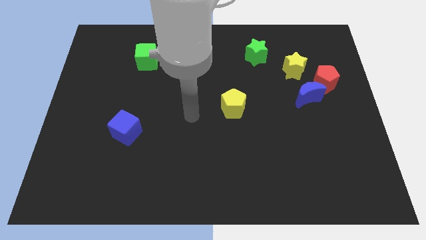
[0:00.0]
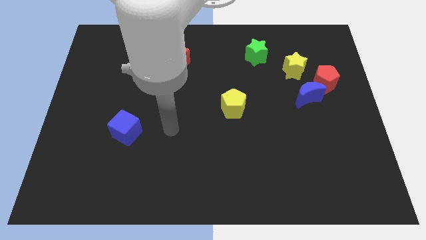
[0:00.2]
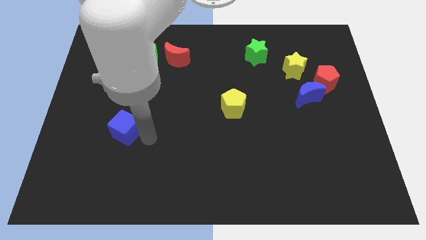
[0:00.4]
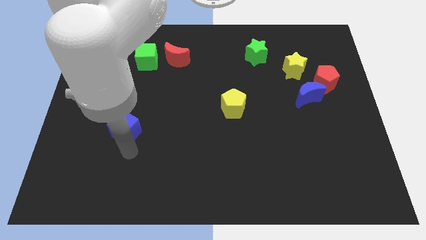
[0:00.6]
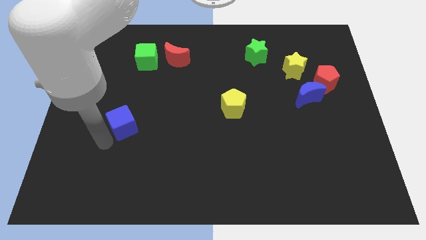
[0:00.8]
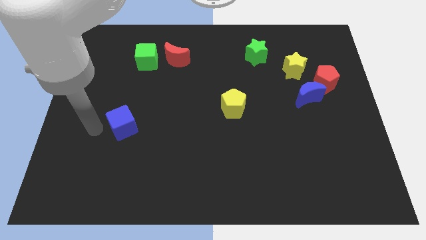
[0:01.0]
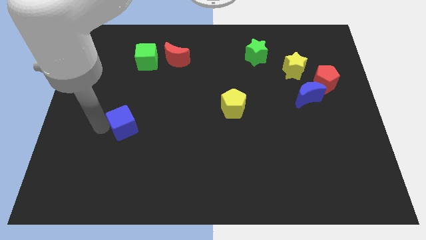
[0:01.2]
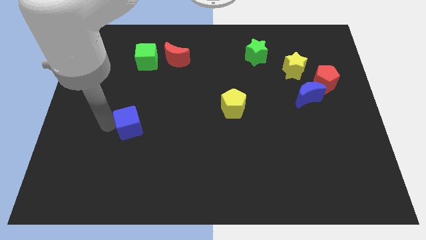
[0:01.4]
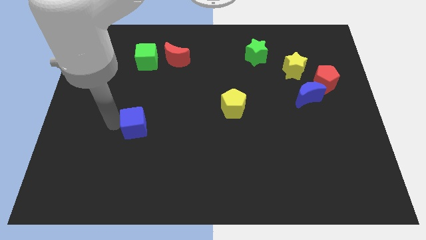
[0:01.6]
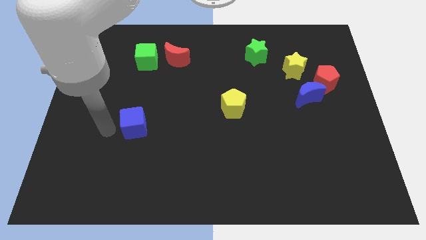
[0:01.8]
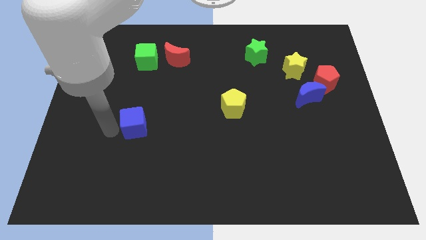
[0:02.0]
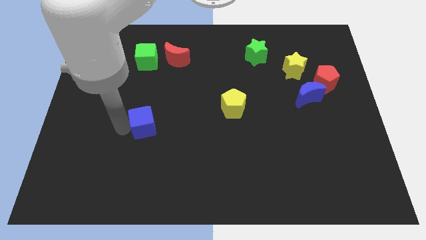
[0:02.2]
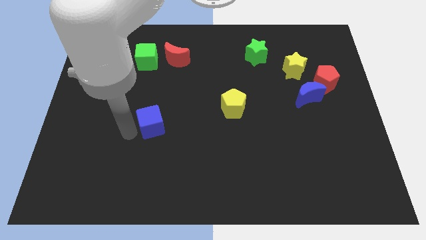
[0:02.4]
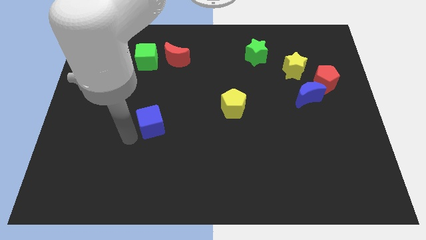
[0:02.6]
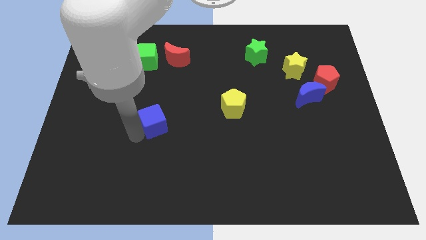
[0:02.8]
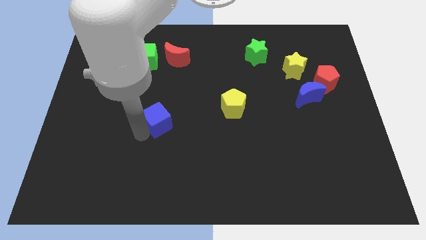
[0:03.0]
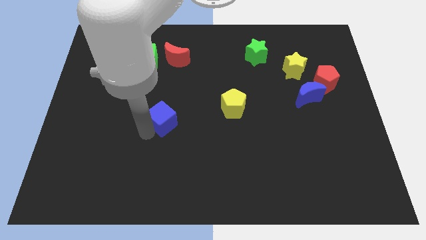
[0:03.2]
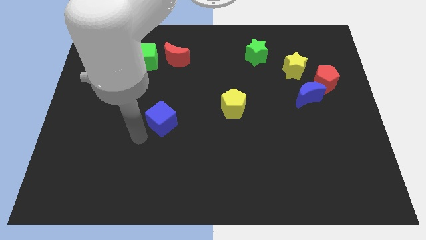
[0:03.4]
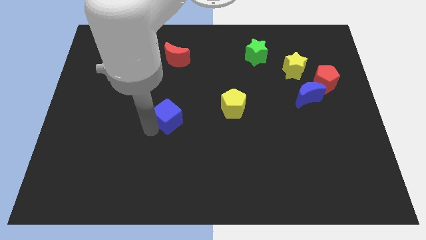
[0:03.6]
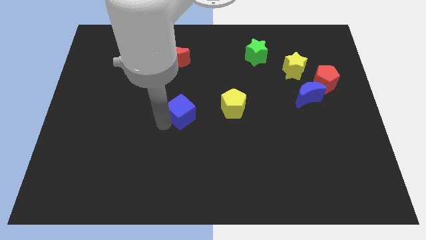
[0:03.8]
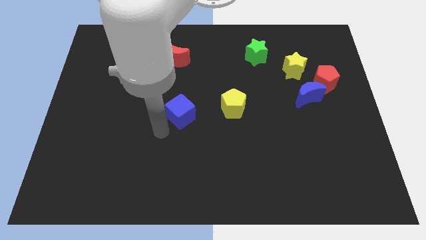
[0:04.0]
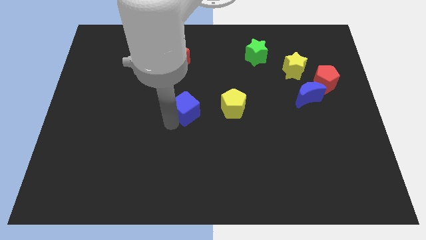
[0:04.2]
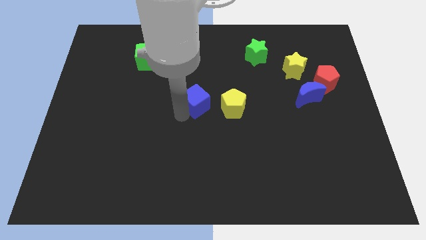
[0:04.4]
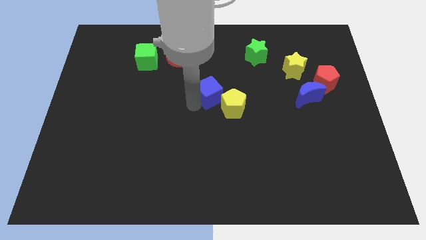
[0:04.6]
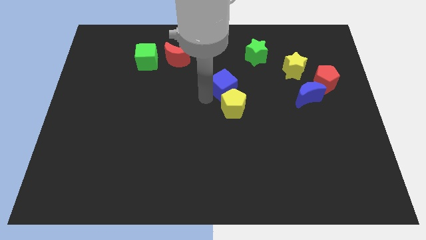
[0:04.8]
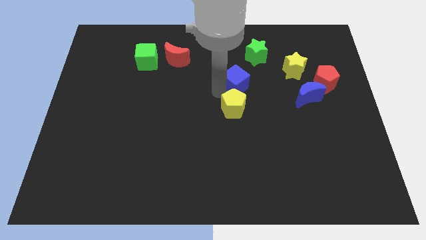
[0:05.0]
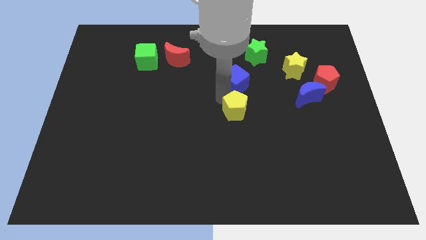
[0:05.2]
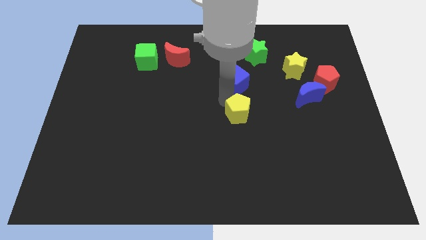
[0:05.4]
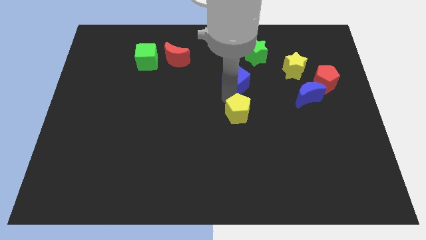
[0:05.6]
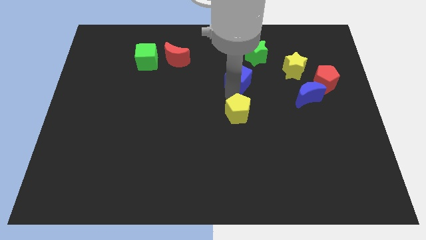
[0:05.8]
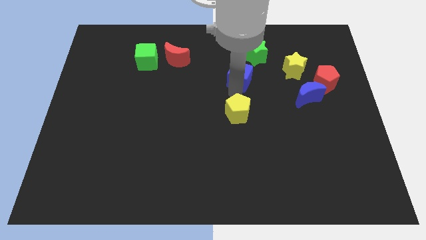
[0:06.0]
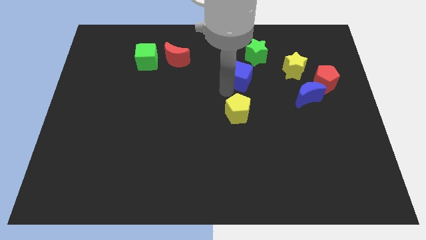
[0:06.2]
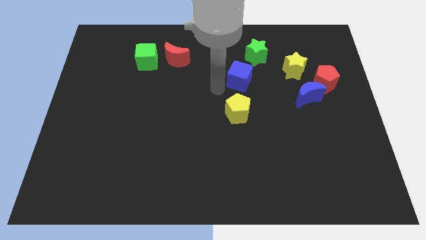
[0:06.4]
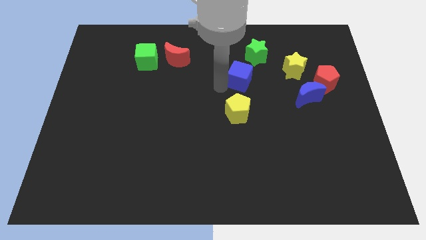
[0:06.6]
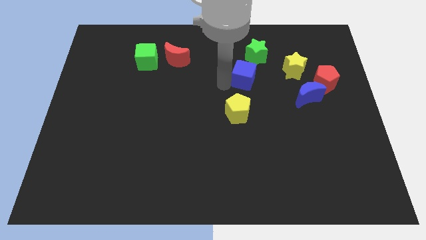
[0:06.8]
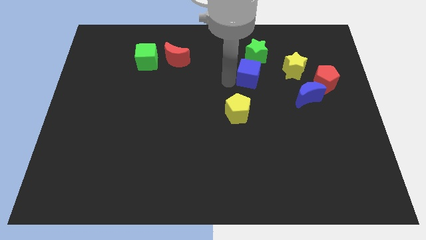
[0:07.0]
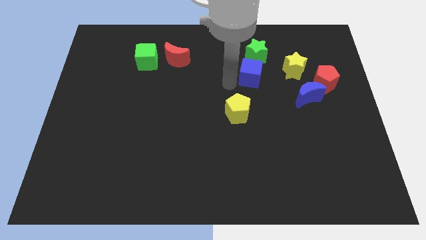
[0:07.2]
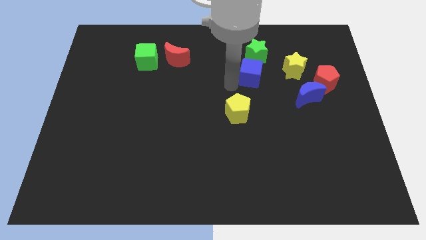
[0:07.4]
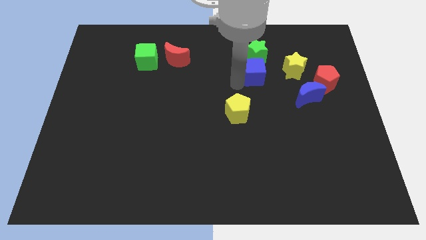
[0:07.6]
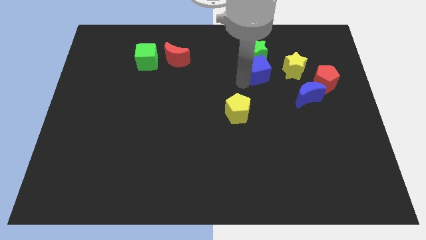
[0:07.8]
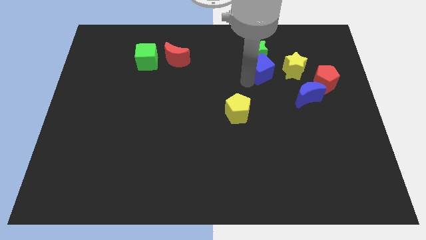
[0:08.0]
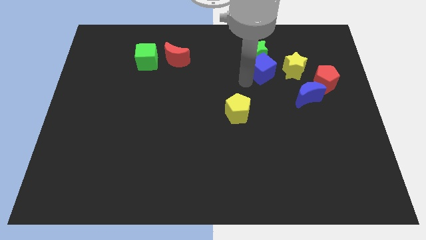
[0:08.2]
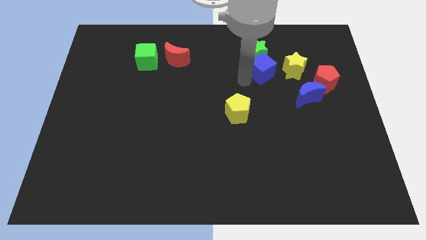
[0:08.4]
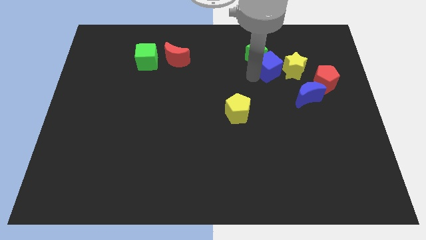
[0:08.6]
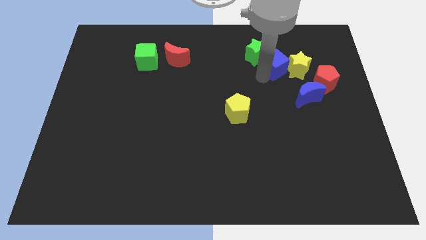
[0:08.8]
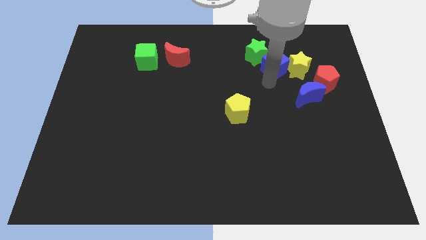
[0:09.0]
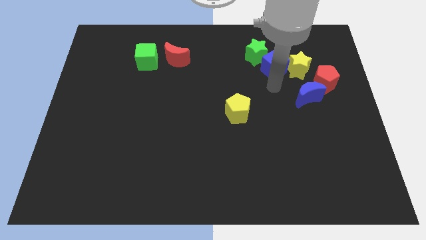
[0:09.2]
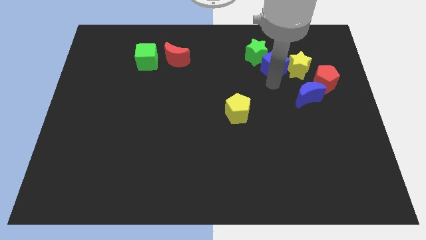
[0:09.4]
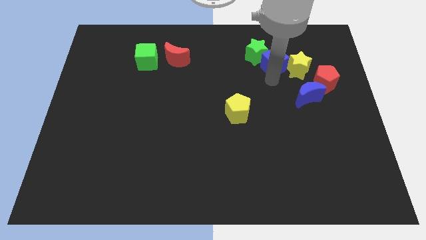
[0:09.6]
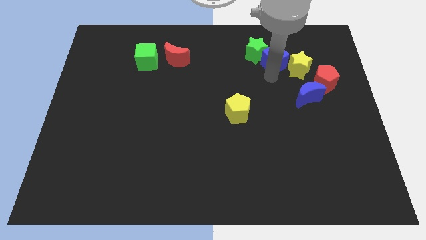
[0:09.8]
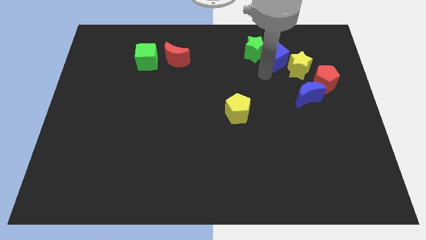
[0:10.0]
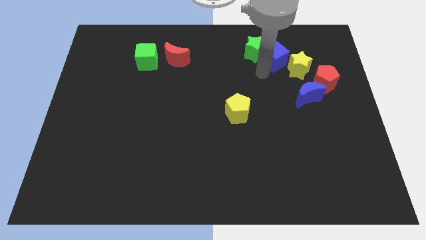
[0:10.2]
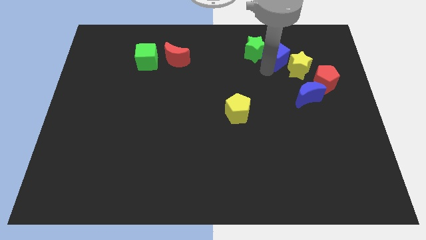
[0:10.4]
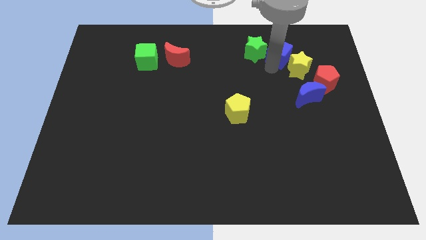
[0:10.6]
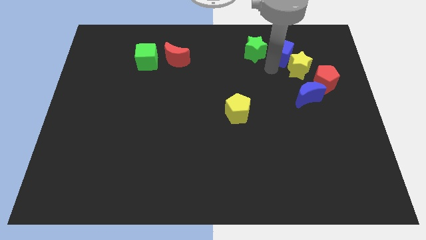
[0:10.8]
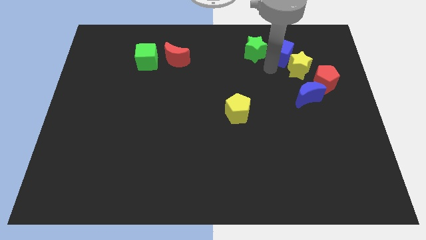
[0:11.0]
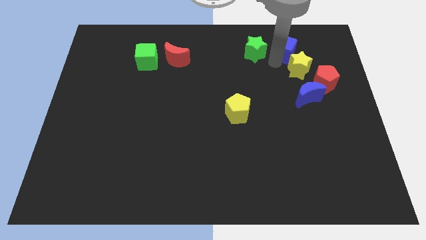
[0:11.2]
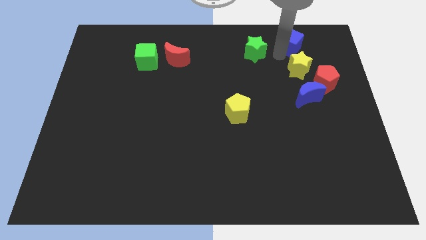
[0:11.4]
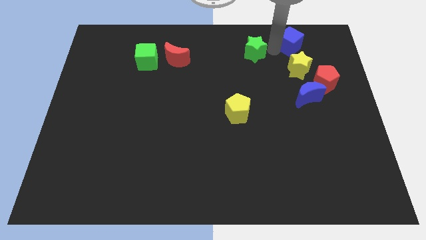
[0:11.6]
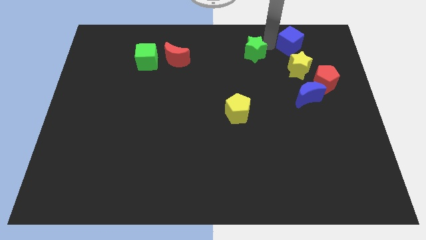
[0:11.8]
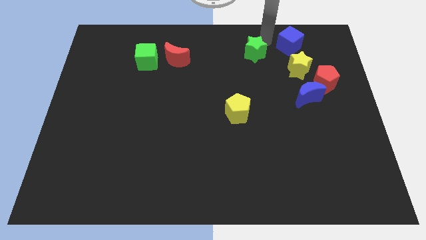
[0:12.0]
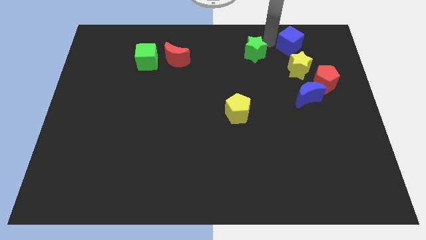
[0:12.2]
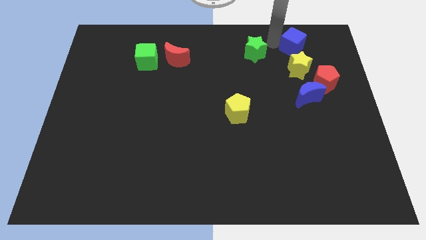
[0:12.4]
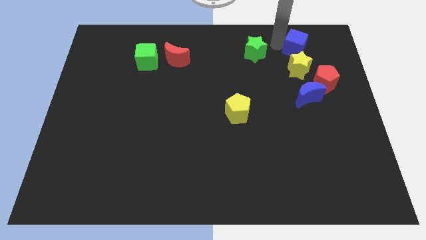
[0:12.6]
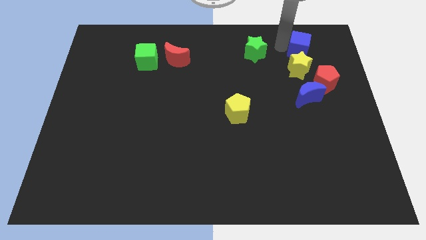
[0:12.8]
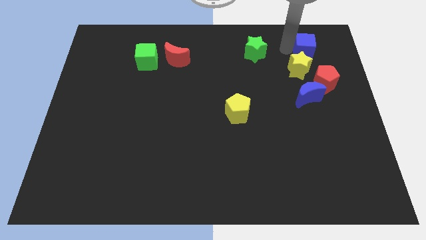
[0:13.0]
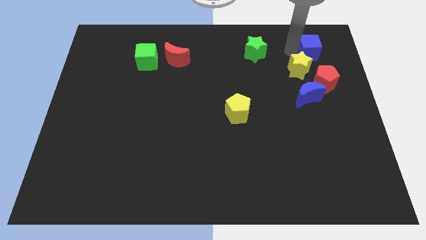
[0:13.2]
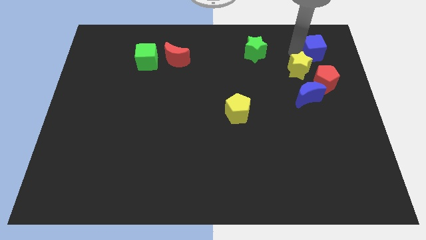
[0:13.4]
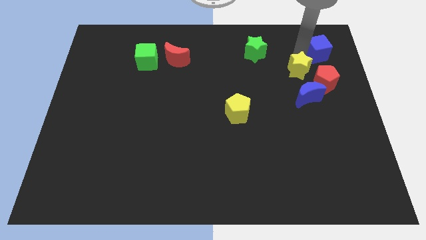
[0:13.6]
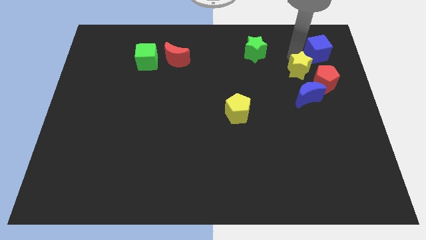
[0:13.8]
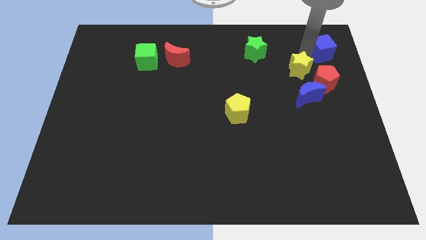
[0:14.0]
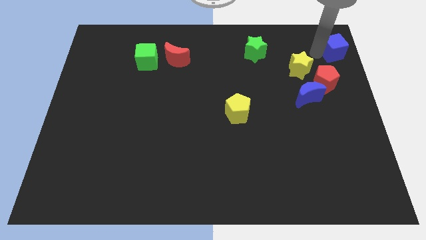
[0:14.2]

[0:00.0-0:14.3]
put the blue cube to the top right of the board
